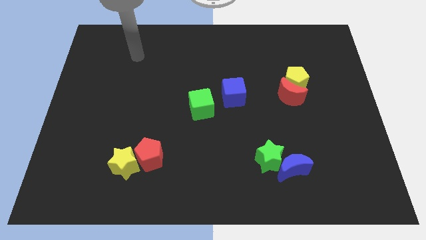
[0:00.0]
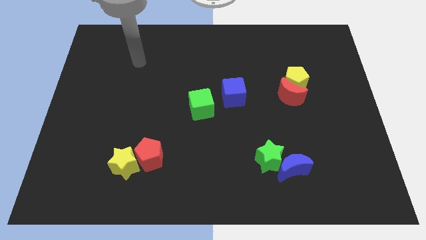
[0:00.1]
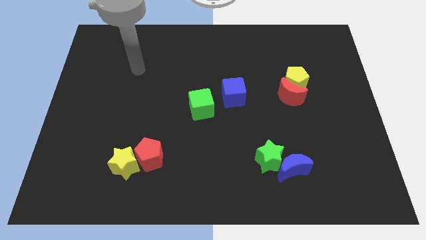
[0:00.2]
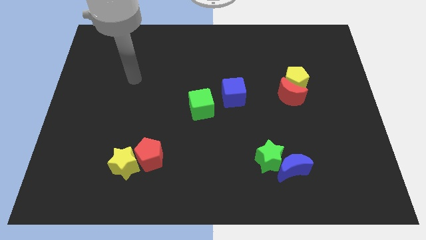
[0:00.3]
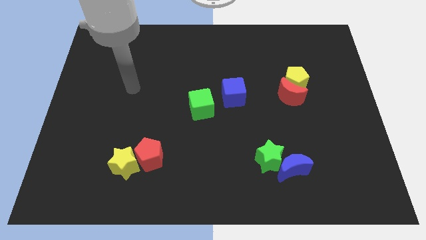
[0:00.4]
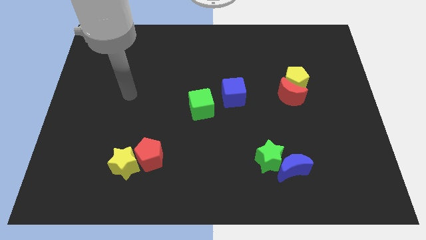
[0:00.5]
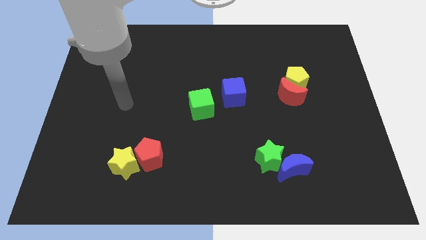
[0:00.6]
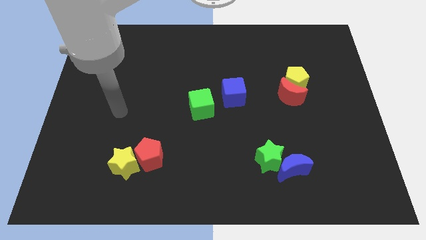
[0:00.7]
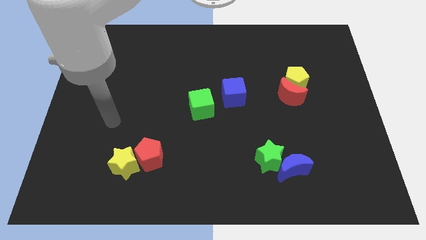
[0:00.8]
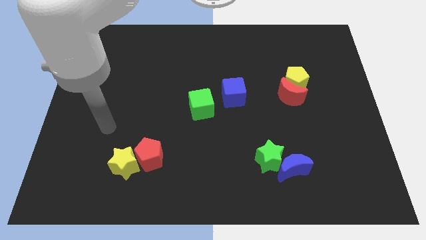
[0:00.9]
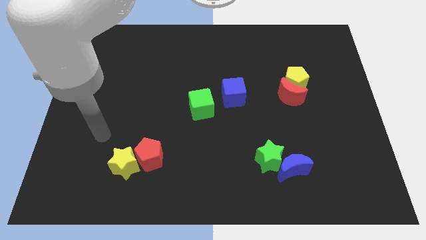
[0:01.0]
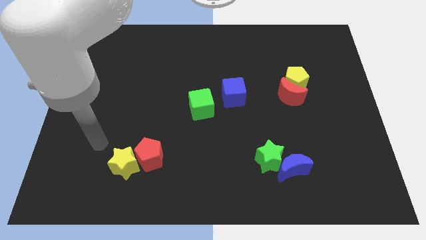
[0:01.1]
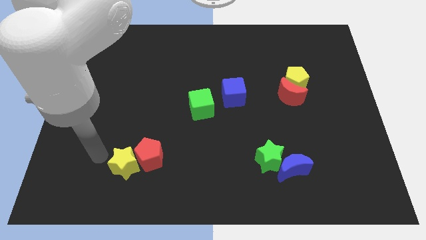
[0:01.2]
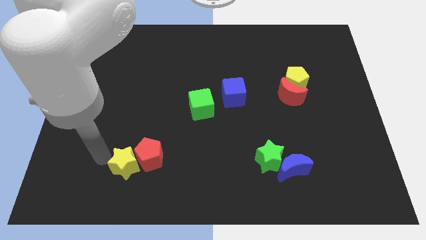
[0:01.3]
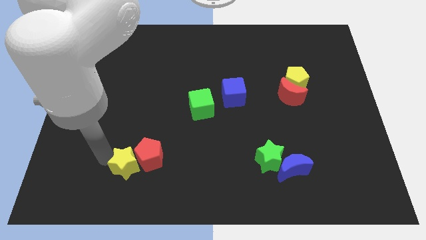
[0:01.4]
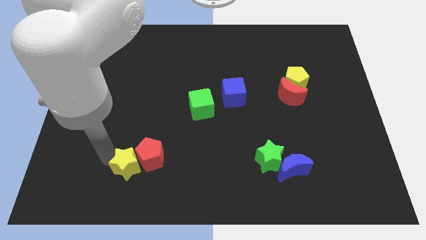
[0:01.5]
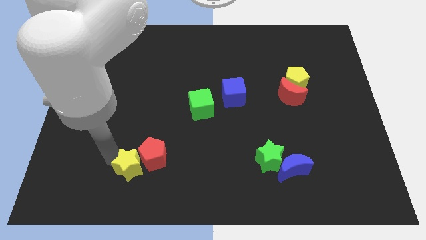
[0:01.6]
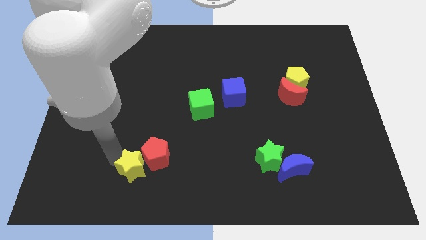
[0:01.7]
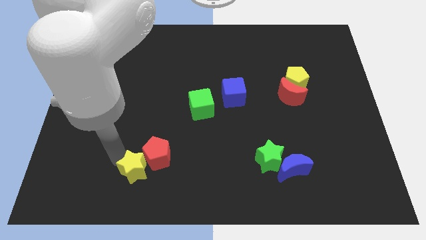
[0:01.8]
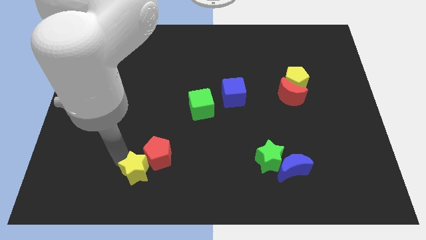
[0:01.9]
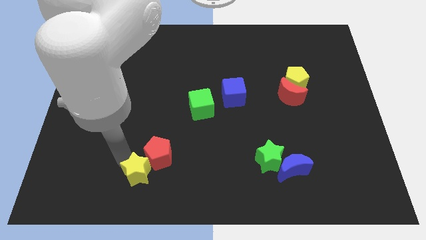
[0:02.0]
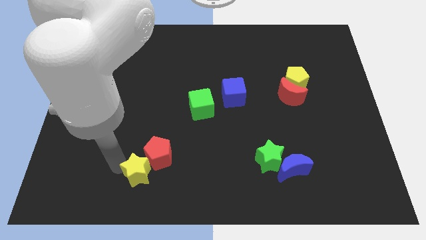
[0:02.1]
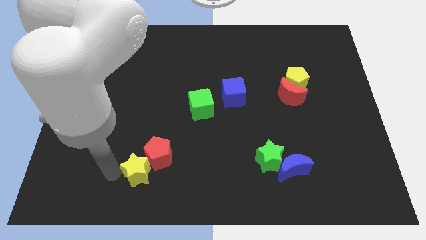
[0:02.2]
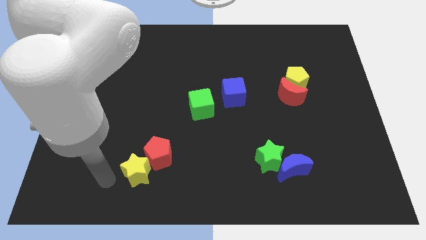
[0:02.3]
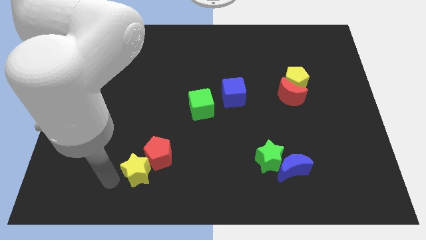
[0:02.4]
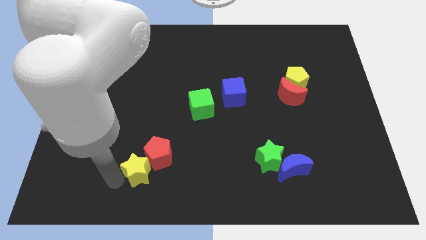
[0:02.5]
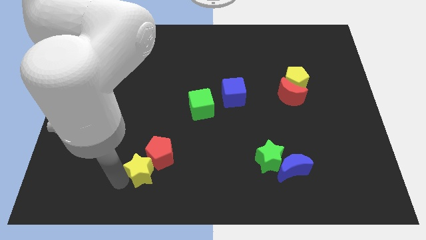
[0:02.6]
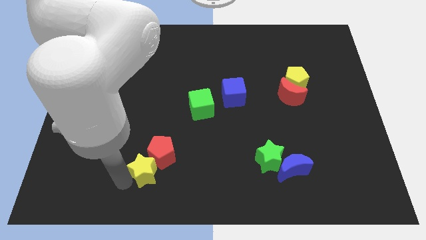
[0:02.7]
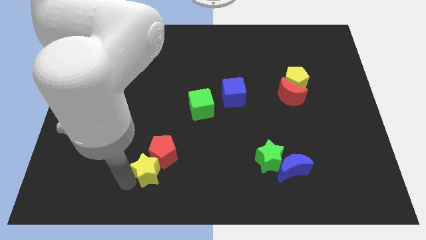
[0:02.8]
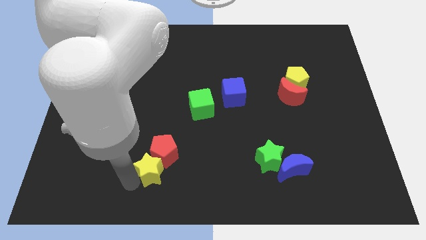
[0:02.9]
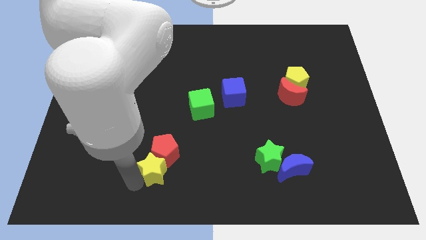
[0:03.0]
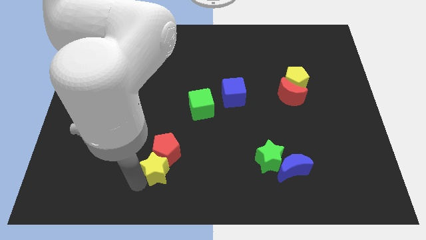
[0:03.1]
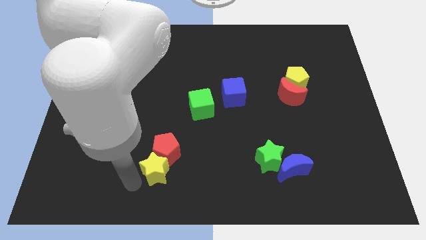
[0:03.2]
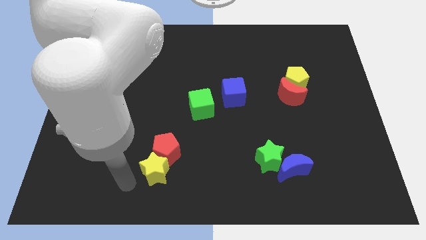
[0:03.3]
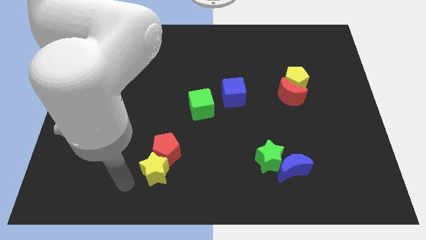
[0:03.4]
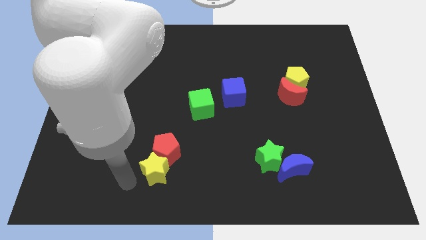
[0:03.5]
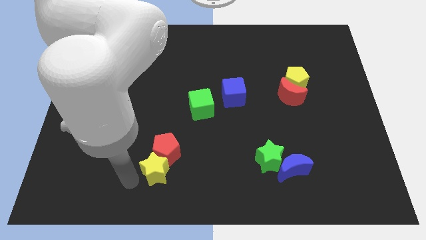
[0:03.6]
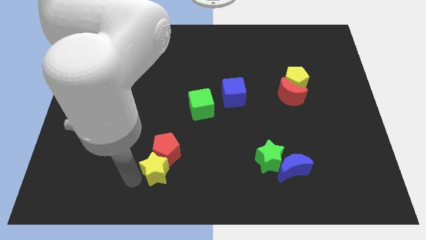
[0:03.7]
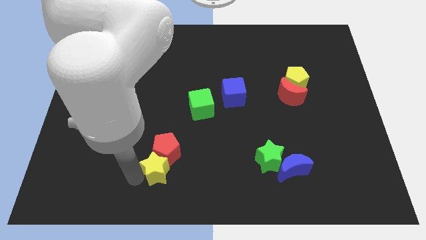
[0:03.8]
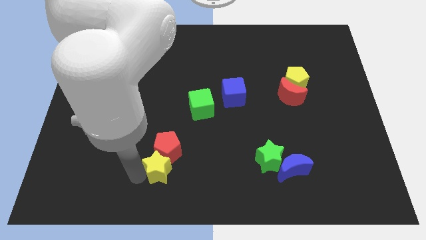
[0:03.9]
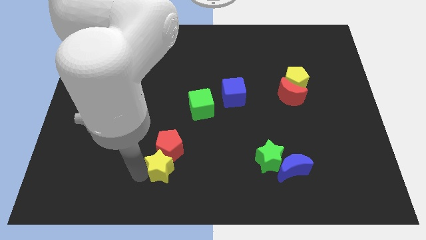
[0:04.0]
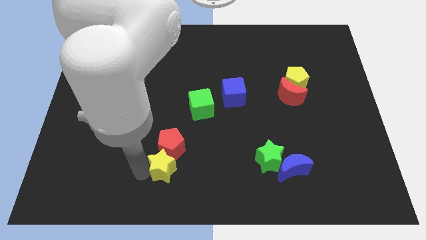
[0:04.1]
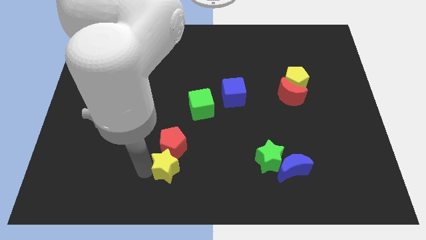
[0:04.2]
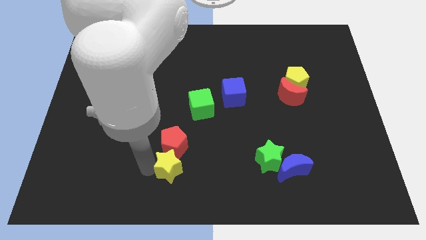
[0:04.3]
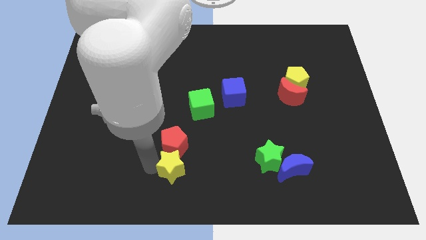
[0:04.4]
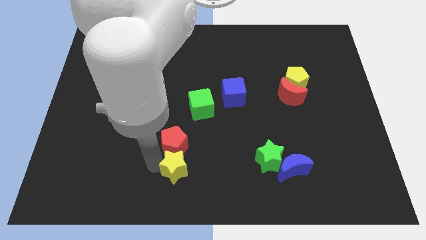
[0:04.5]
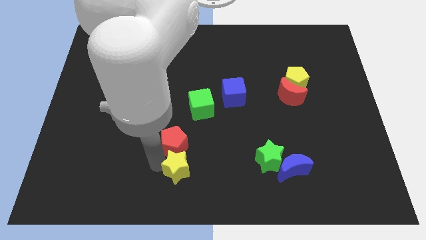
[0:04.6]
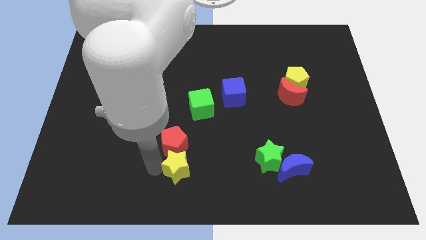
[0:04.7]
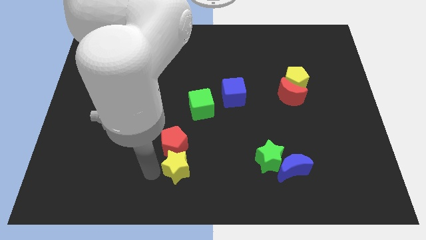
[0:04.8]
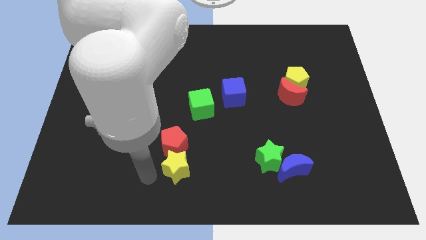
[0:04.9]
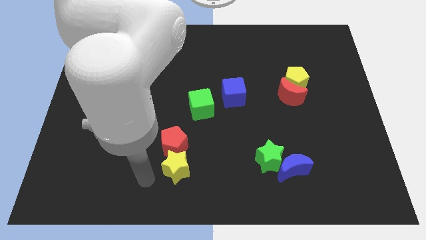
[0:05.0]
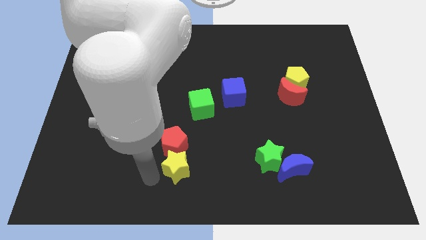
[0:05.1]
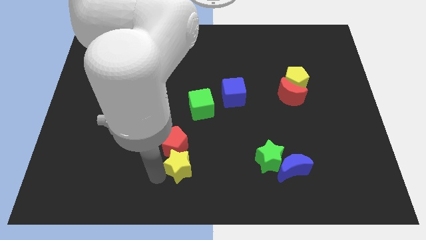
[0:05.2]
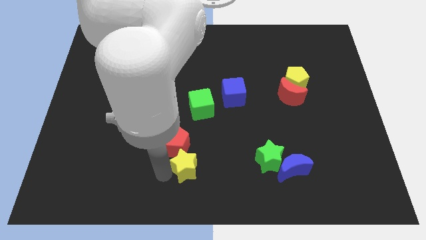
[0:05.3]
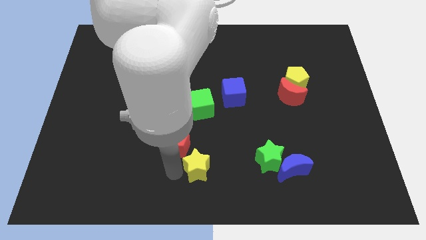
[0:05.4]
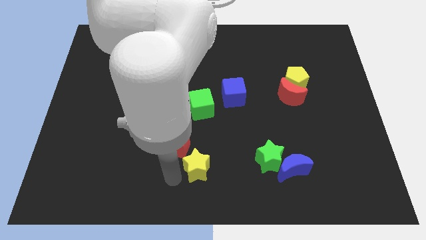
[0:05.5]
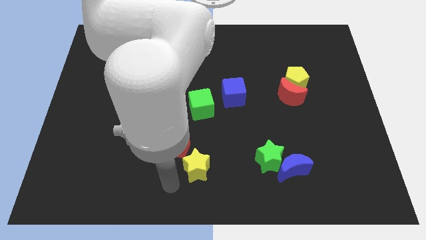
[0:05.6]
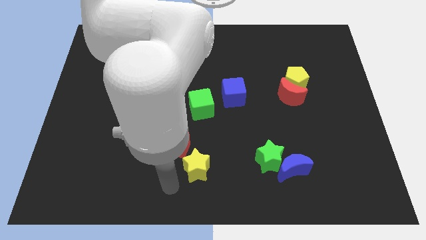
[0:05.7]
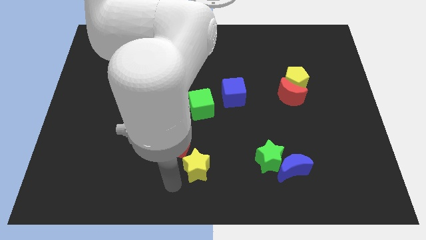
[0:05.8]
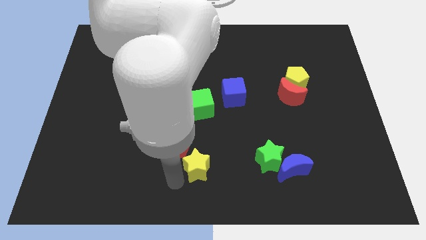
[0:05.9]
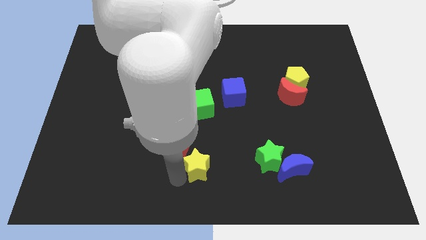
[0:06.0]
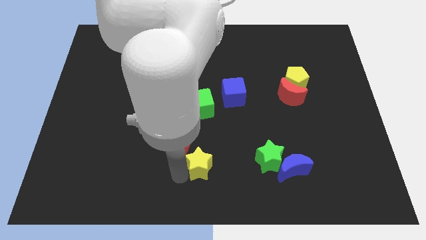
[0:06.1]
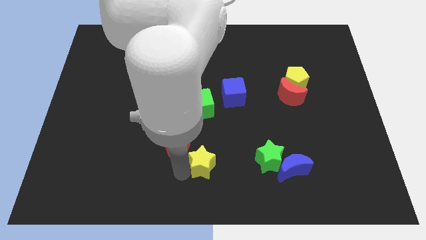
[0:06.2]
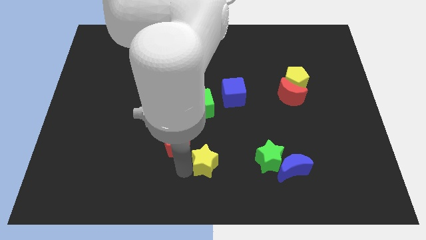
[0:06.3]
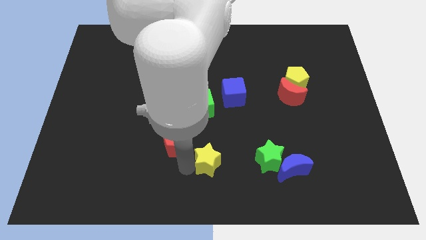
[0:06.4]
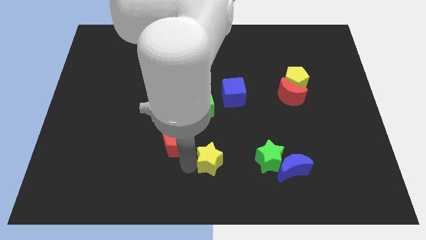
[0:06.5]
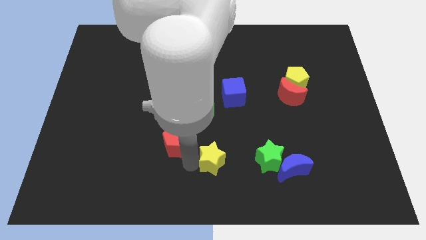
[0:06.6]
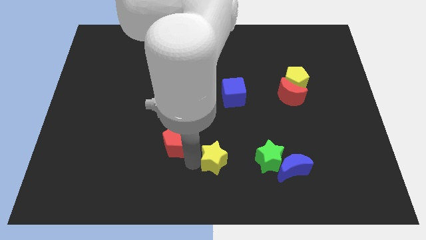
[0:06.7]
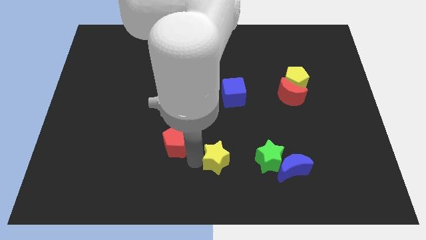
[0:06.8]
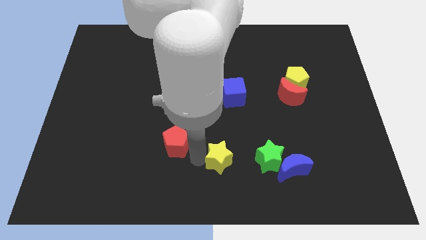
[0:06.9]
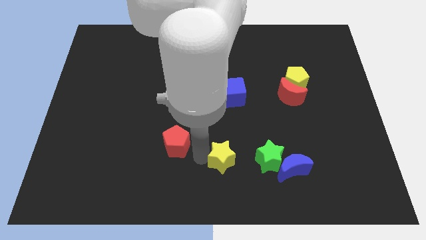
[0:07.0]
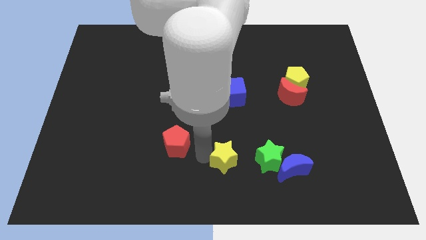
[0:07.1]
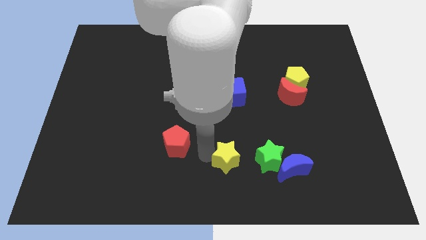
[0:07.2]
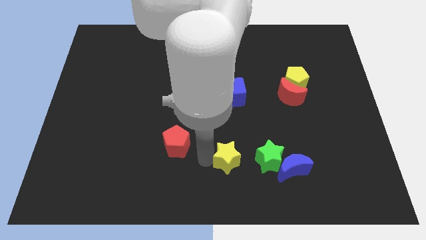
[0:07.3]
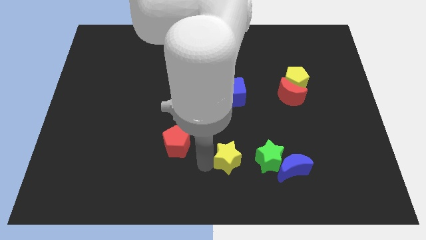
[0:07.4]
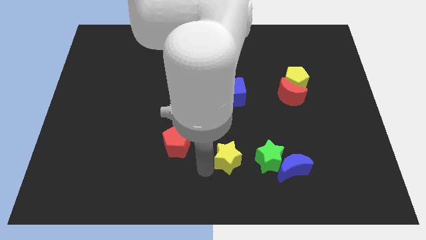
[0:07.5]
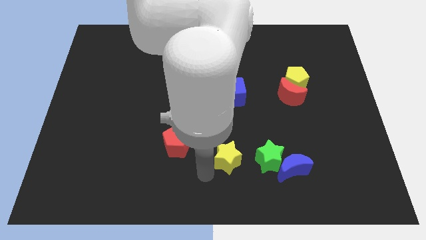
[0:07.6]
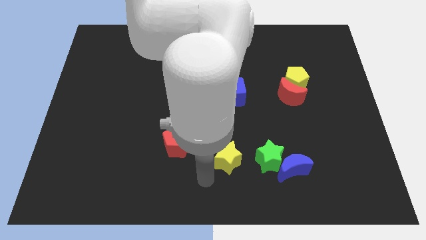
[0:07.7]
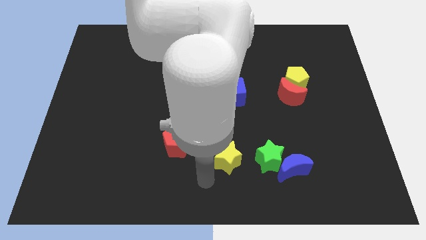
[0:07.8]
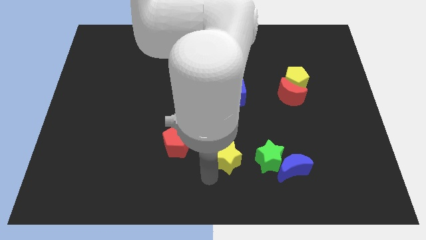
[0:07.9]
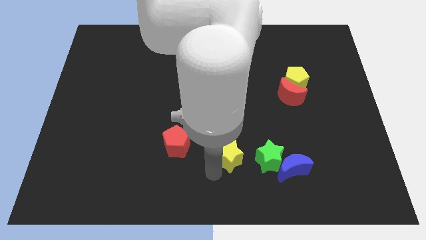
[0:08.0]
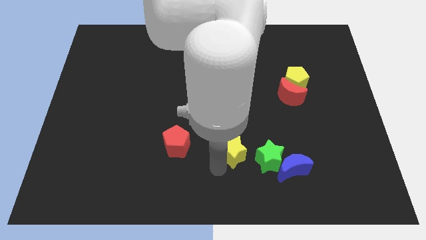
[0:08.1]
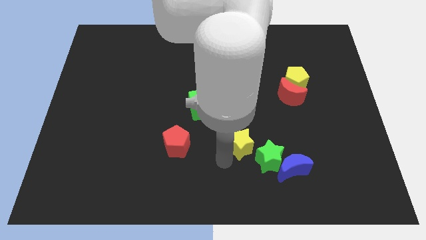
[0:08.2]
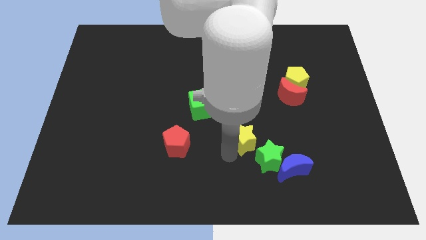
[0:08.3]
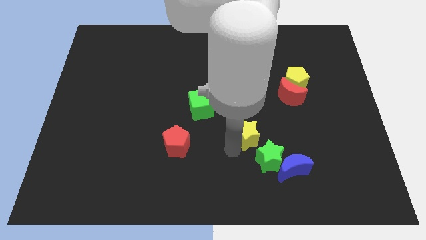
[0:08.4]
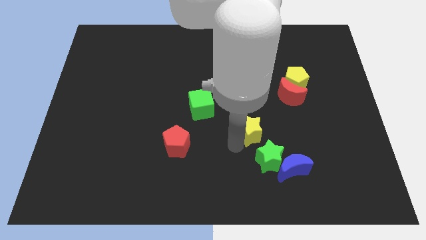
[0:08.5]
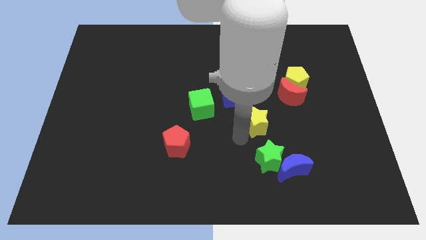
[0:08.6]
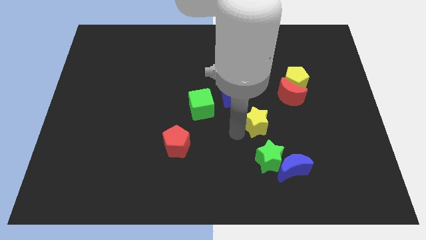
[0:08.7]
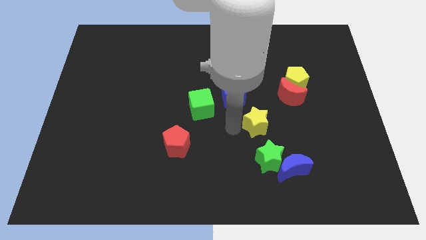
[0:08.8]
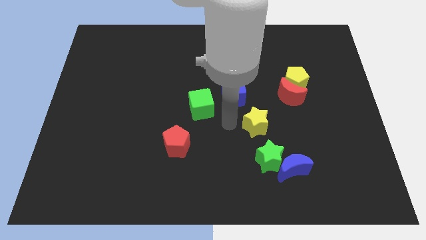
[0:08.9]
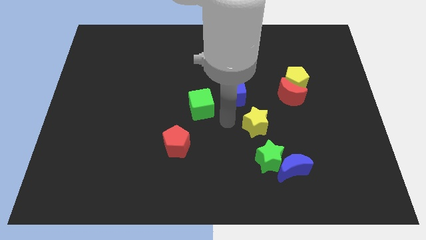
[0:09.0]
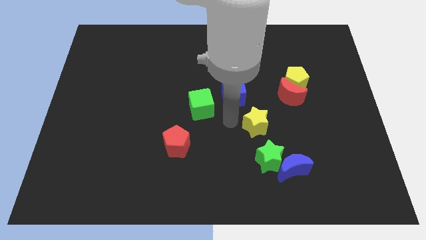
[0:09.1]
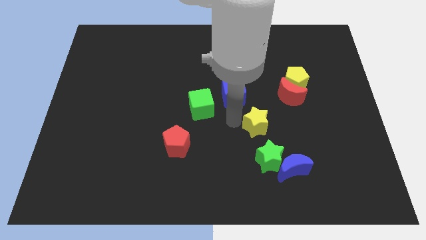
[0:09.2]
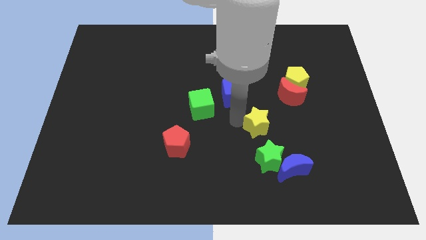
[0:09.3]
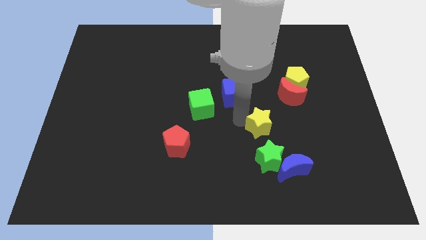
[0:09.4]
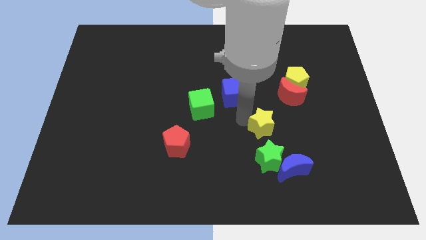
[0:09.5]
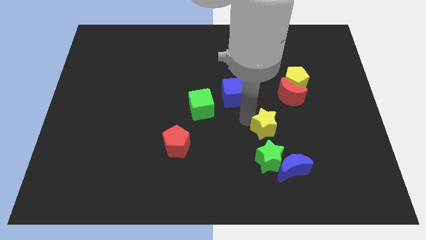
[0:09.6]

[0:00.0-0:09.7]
move the yellow star above the blue moon
